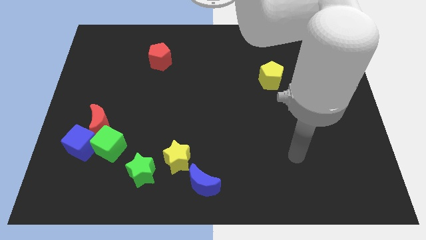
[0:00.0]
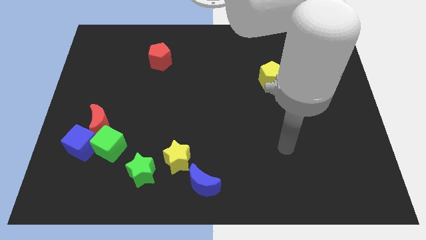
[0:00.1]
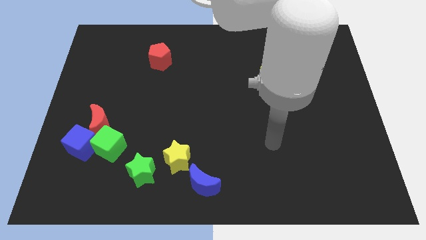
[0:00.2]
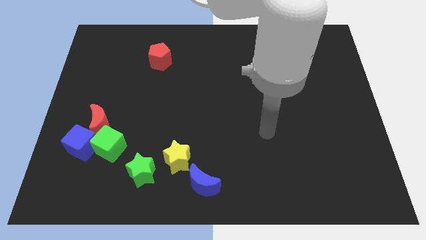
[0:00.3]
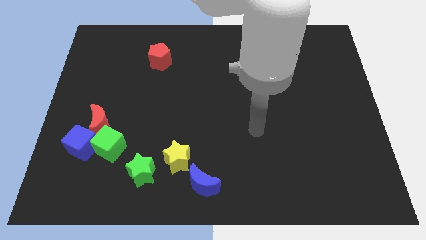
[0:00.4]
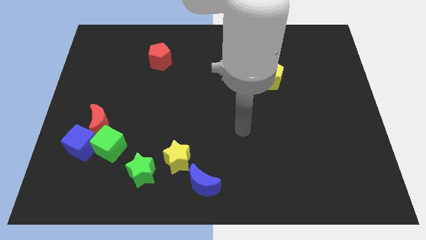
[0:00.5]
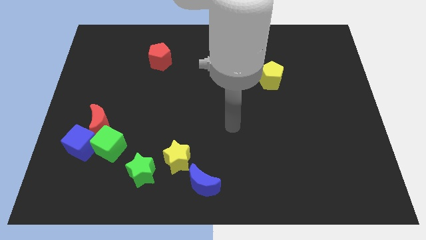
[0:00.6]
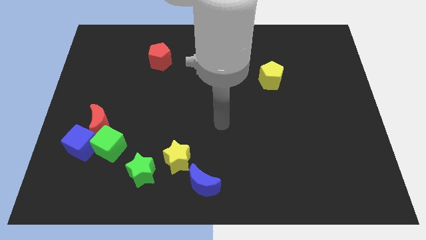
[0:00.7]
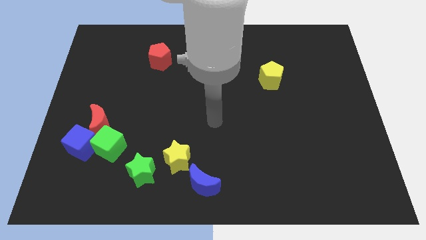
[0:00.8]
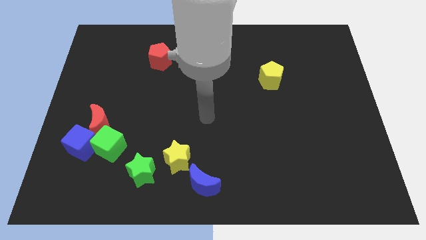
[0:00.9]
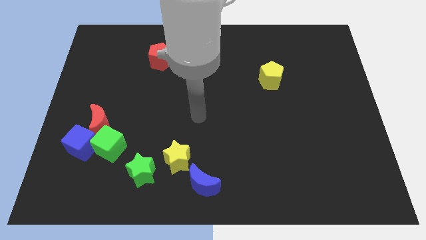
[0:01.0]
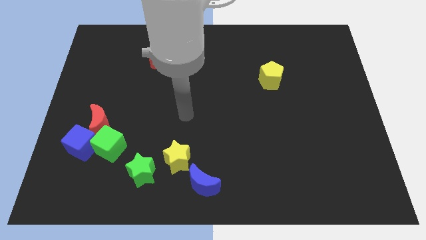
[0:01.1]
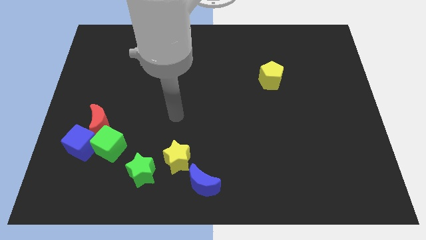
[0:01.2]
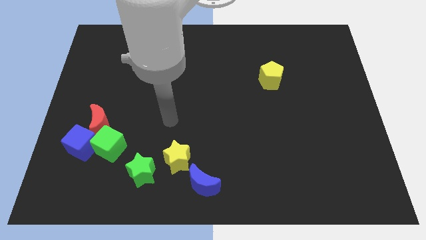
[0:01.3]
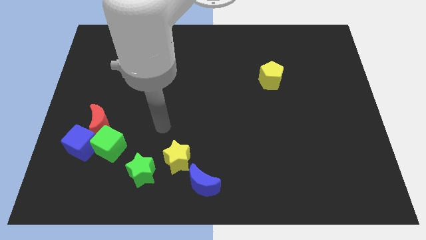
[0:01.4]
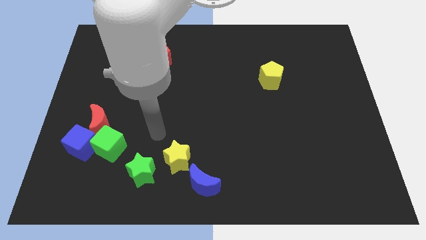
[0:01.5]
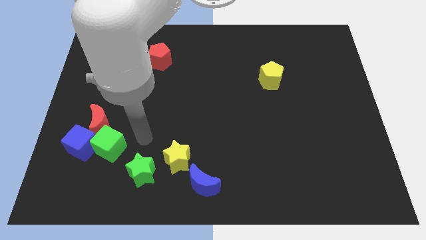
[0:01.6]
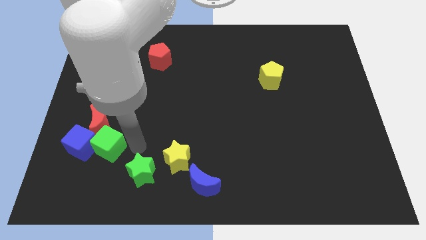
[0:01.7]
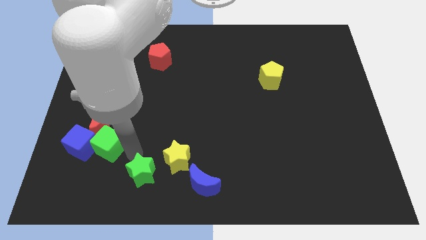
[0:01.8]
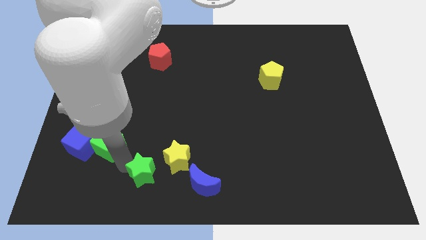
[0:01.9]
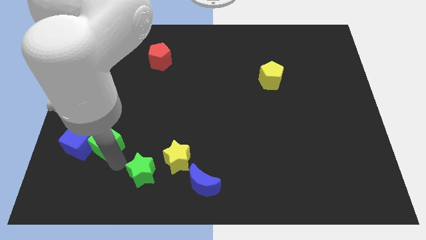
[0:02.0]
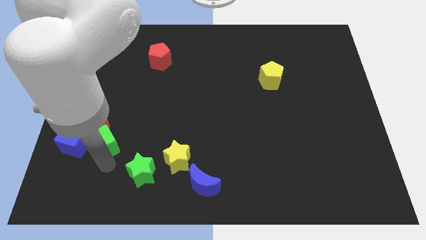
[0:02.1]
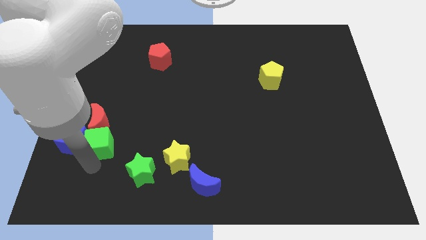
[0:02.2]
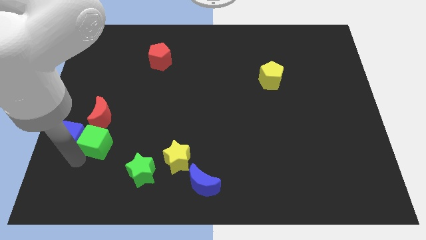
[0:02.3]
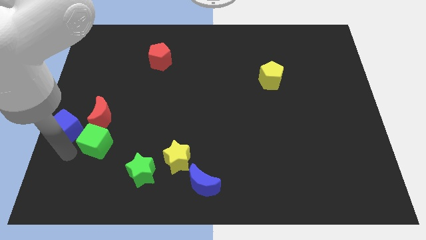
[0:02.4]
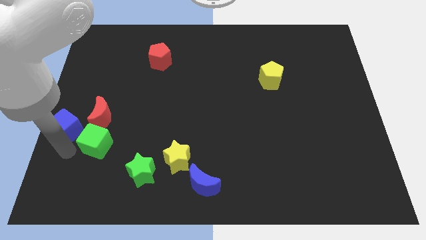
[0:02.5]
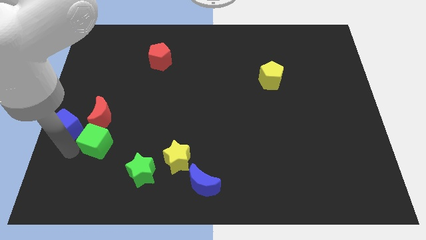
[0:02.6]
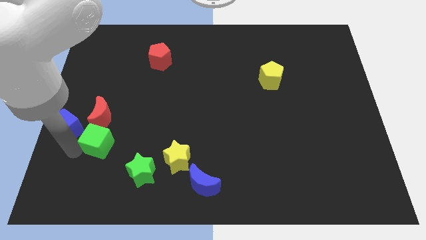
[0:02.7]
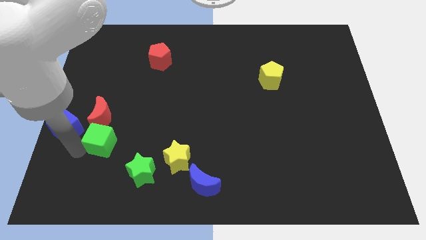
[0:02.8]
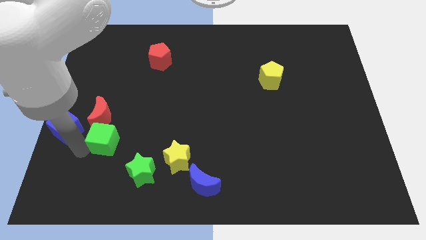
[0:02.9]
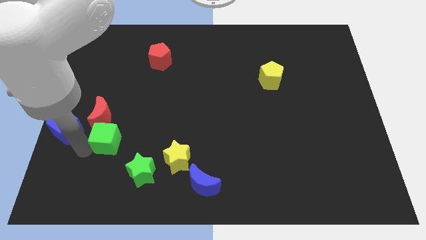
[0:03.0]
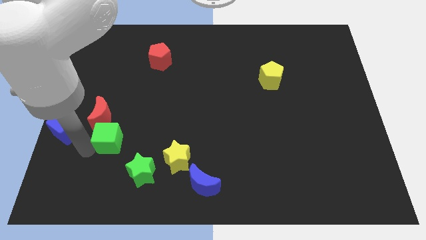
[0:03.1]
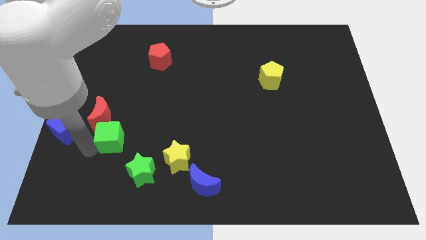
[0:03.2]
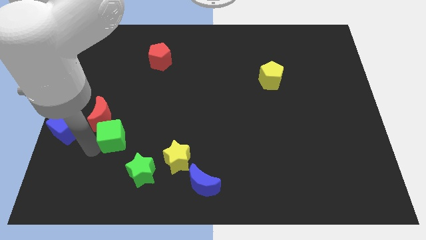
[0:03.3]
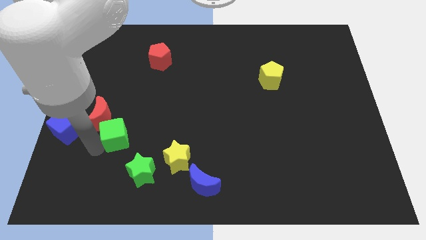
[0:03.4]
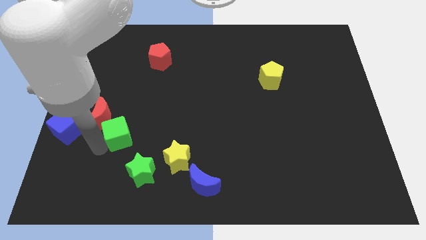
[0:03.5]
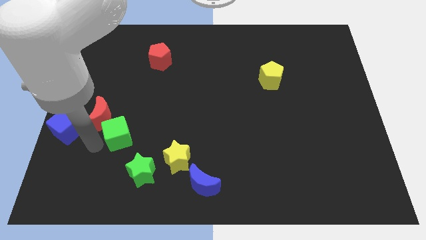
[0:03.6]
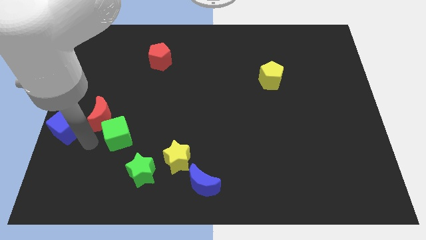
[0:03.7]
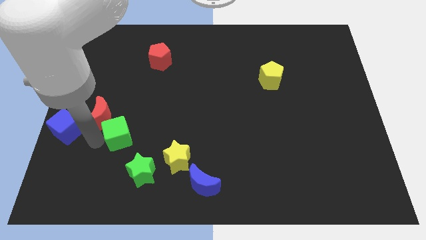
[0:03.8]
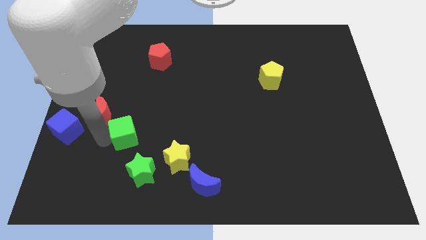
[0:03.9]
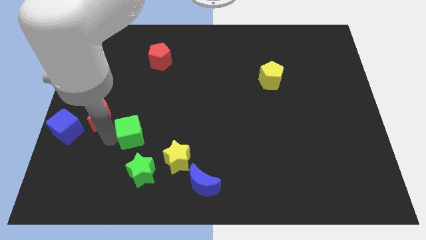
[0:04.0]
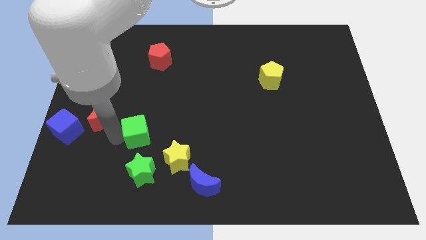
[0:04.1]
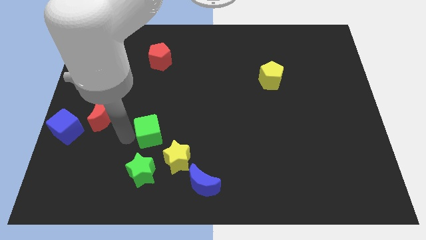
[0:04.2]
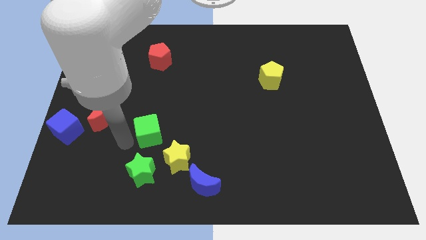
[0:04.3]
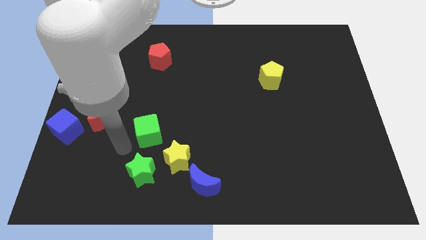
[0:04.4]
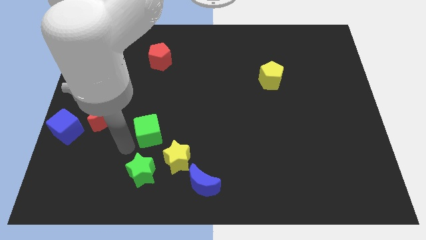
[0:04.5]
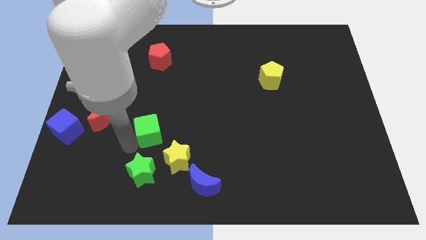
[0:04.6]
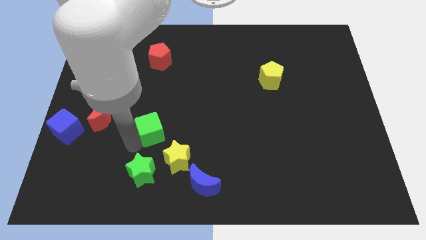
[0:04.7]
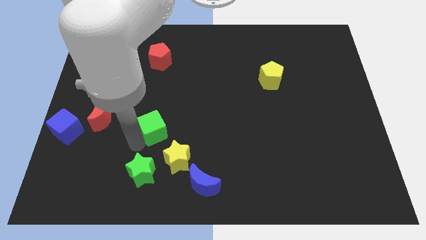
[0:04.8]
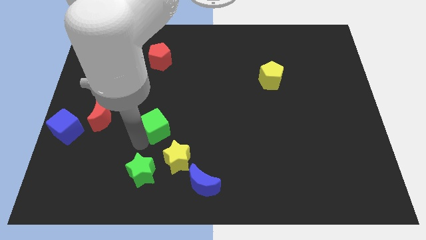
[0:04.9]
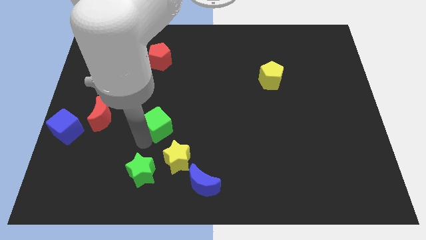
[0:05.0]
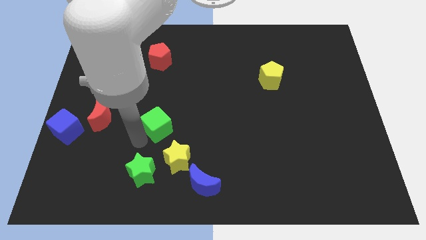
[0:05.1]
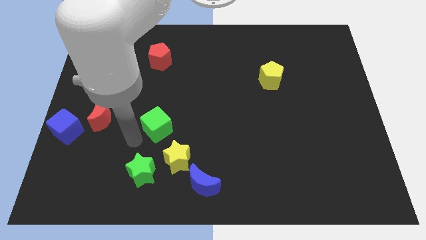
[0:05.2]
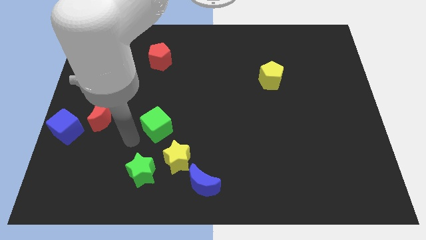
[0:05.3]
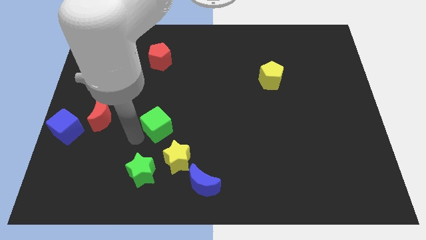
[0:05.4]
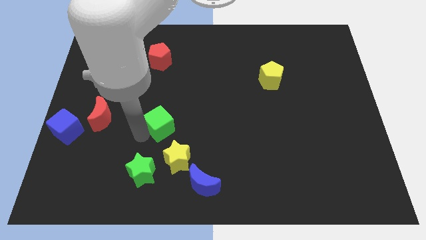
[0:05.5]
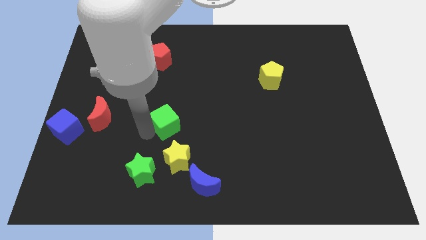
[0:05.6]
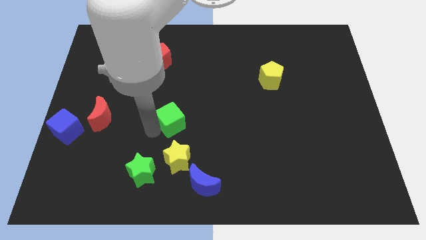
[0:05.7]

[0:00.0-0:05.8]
slide the green cube to the center of the board

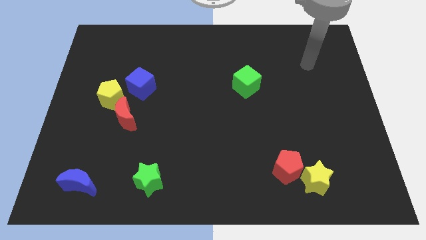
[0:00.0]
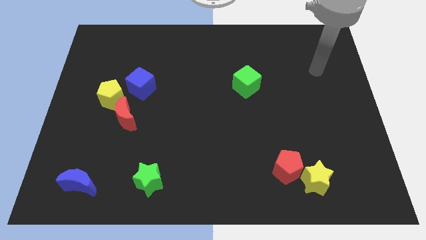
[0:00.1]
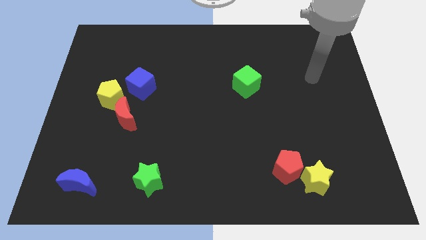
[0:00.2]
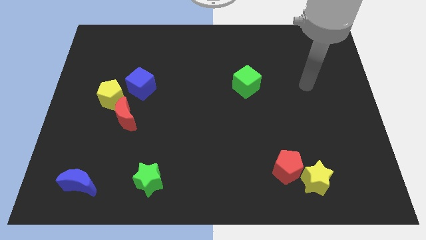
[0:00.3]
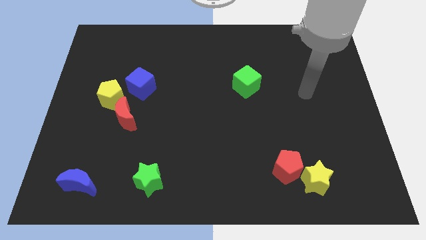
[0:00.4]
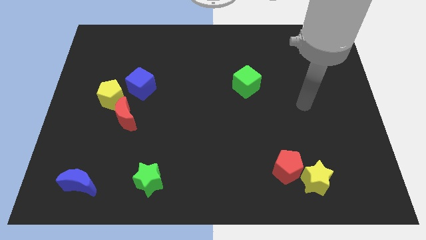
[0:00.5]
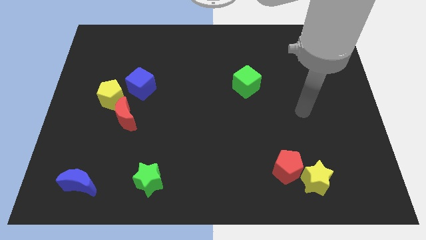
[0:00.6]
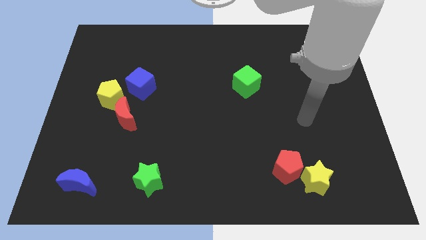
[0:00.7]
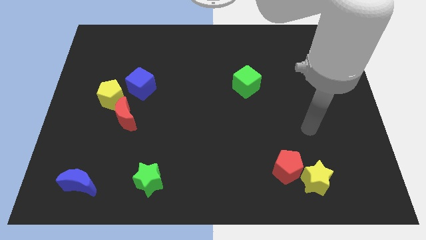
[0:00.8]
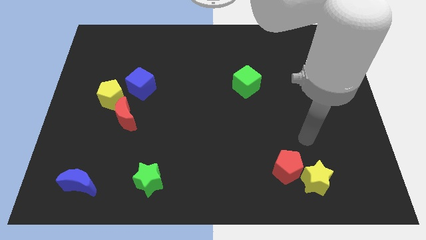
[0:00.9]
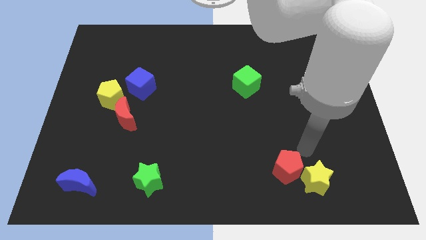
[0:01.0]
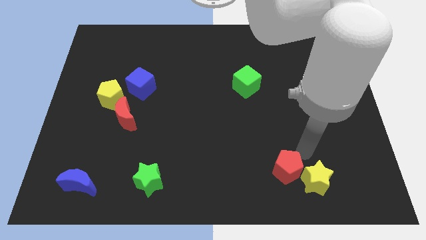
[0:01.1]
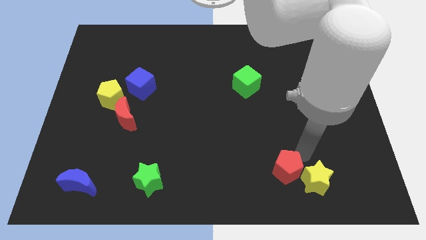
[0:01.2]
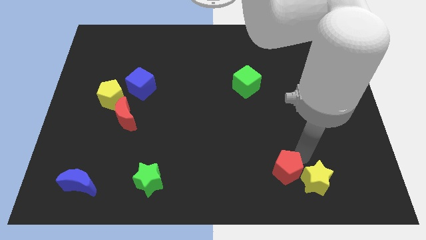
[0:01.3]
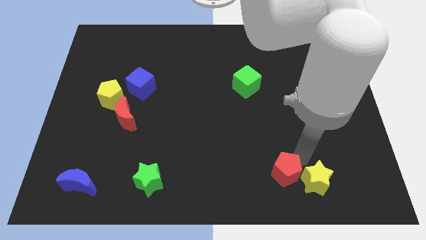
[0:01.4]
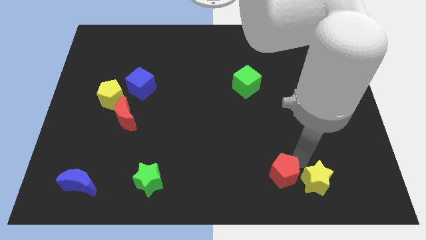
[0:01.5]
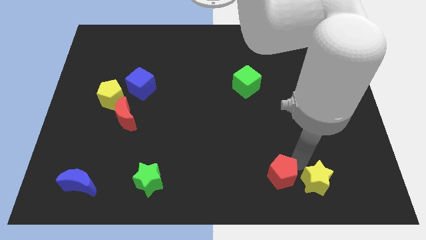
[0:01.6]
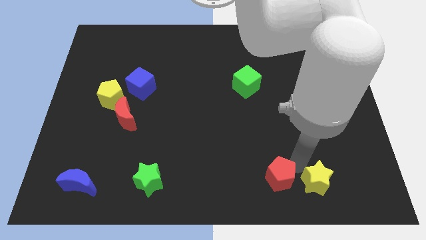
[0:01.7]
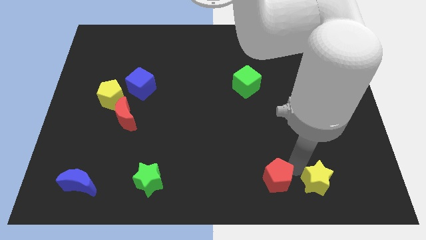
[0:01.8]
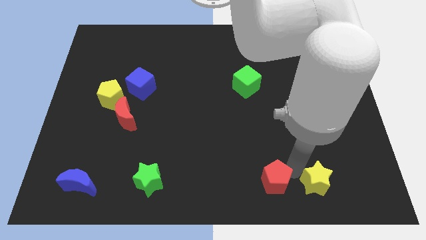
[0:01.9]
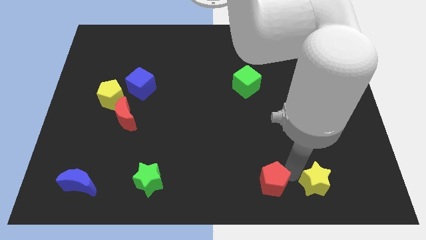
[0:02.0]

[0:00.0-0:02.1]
put the red pentagon to the bottom
